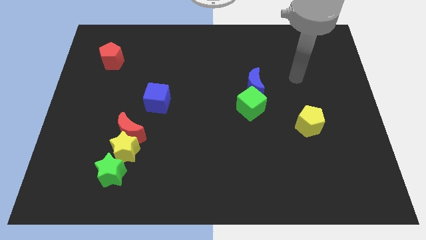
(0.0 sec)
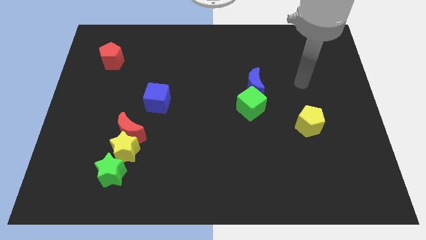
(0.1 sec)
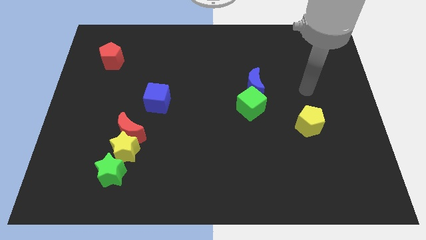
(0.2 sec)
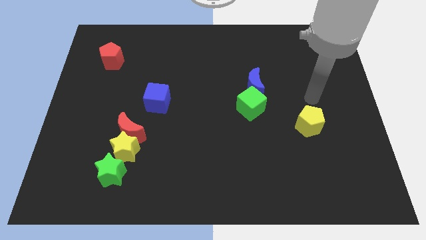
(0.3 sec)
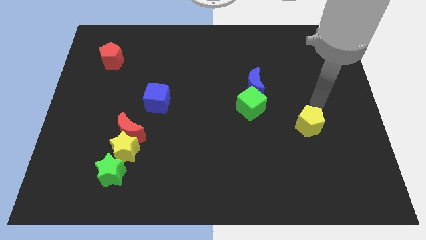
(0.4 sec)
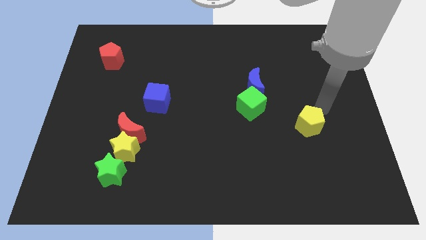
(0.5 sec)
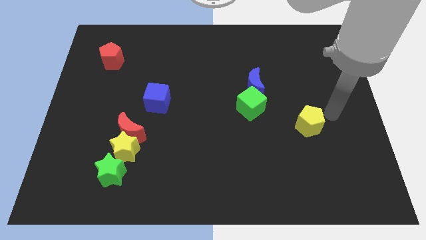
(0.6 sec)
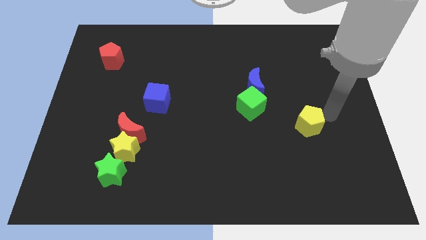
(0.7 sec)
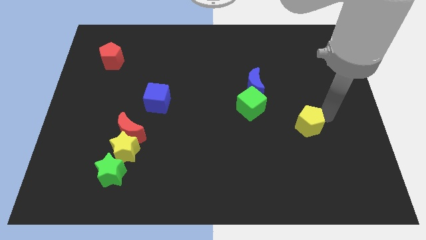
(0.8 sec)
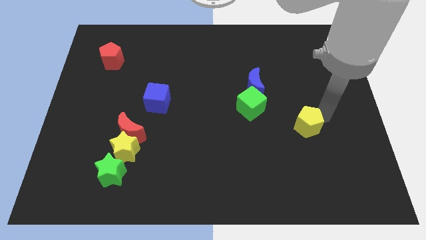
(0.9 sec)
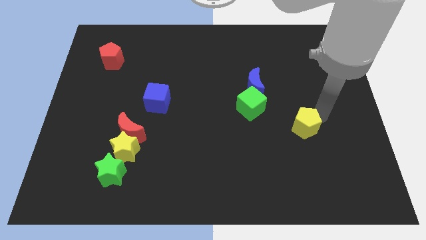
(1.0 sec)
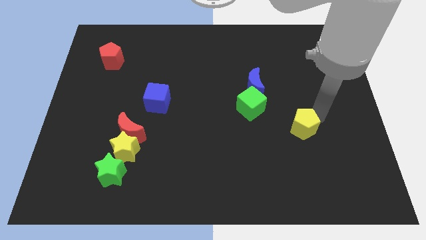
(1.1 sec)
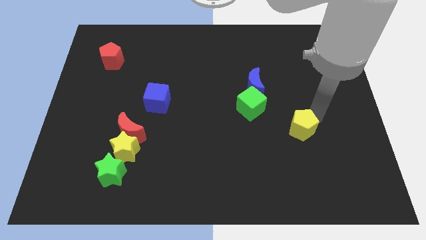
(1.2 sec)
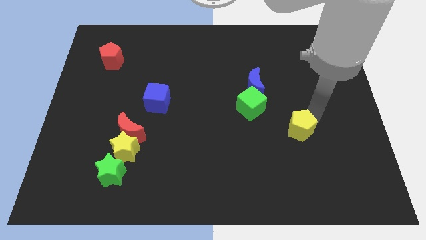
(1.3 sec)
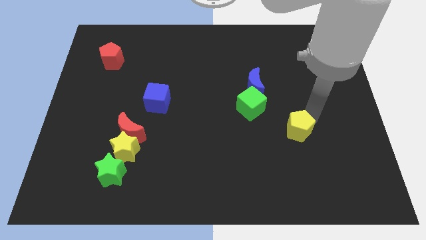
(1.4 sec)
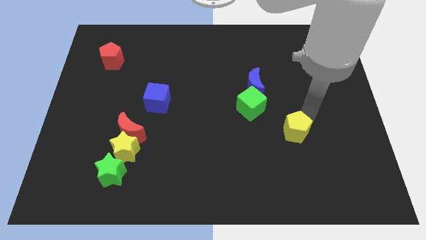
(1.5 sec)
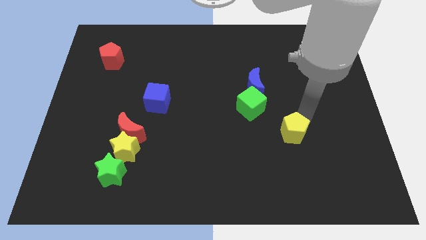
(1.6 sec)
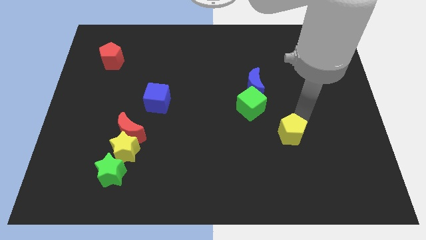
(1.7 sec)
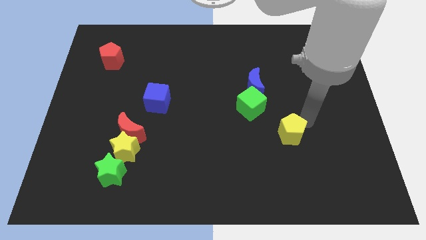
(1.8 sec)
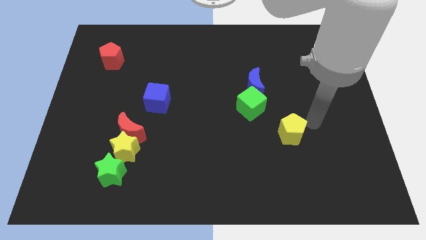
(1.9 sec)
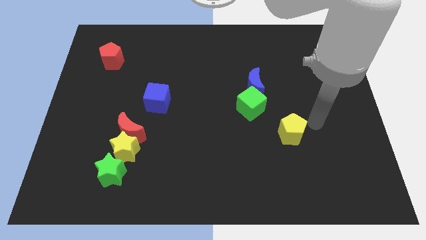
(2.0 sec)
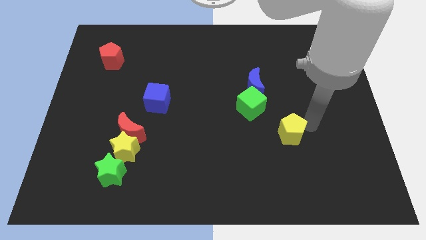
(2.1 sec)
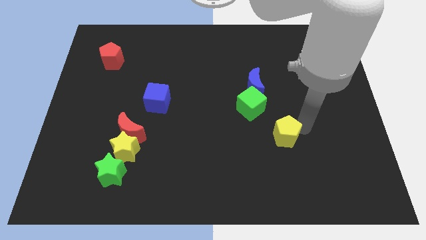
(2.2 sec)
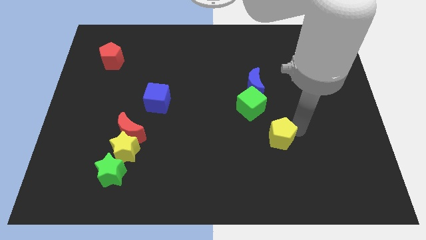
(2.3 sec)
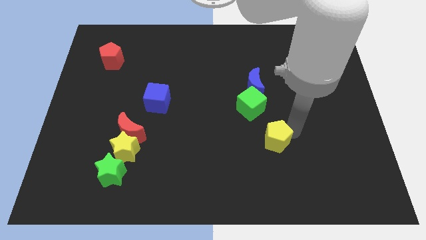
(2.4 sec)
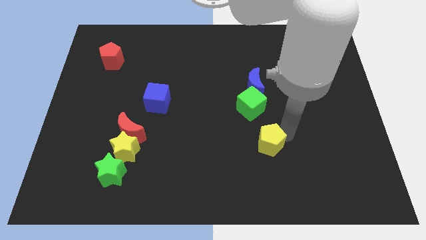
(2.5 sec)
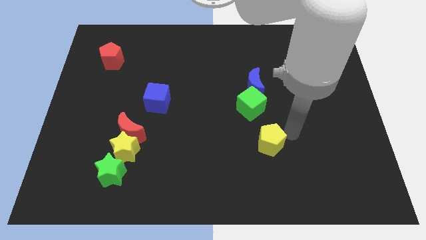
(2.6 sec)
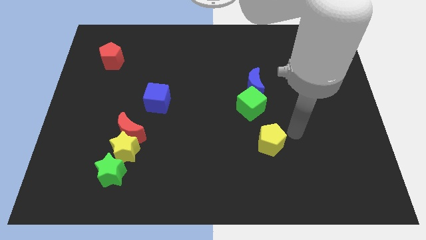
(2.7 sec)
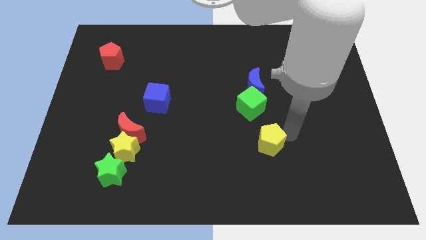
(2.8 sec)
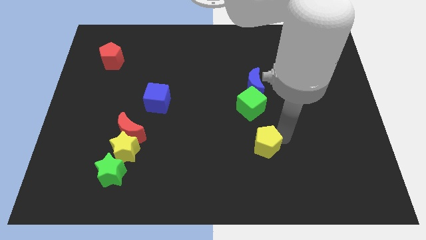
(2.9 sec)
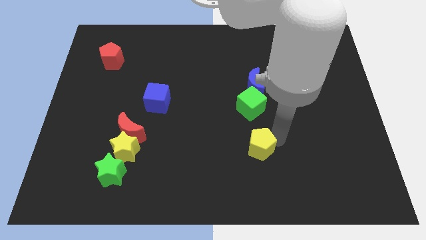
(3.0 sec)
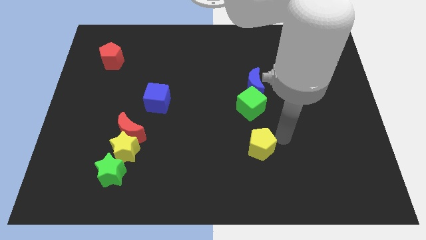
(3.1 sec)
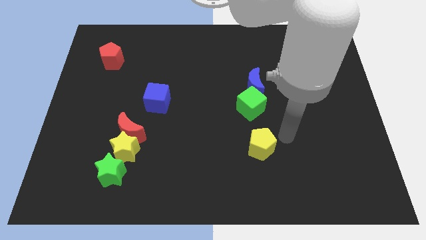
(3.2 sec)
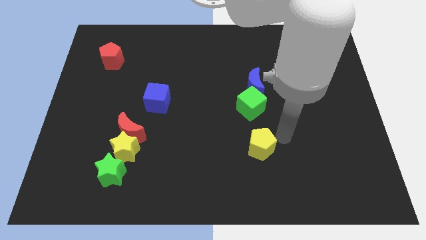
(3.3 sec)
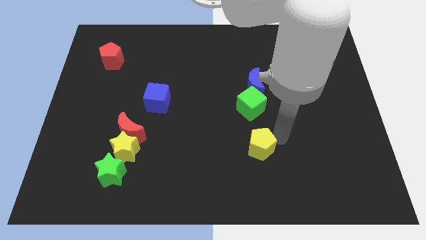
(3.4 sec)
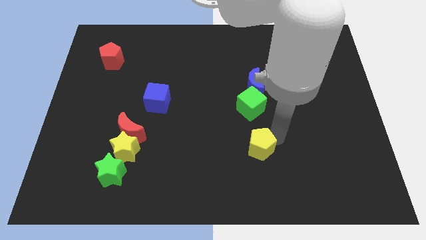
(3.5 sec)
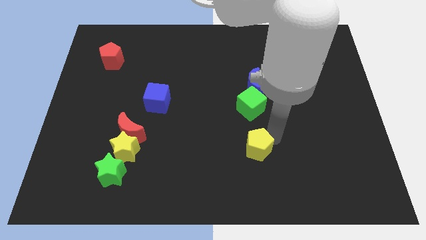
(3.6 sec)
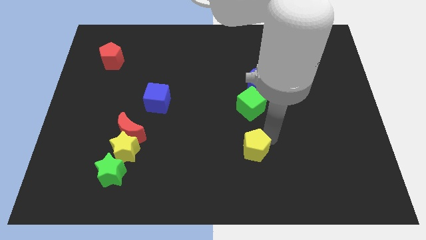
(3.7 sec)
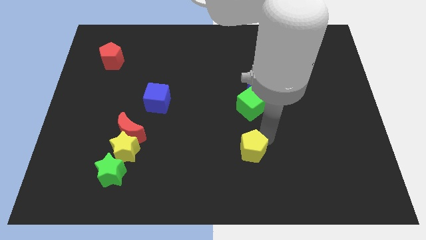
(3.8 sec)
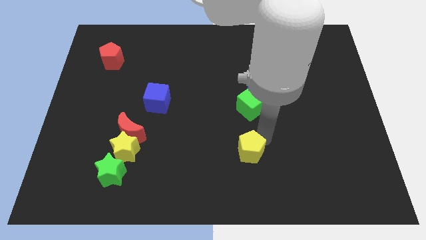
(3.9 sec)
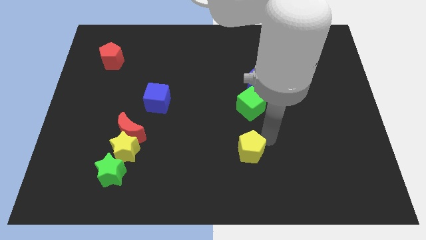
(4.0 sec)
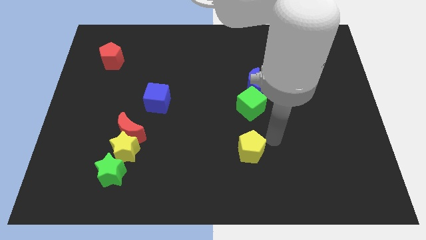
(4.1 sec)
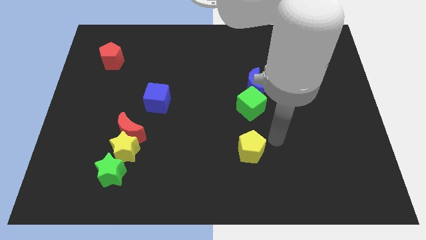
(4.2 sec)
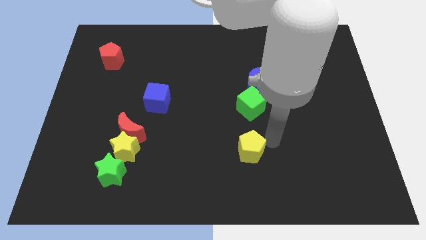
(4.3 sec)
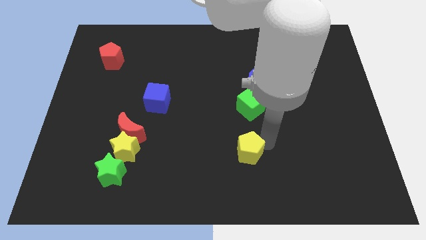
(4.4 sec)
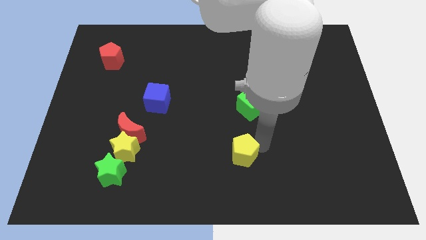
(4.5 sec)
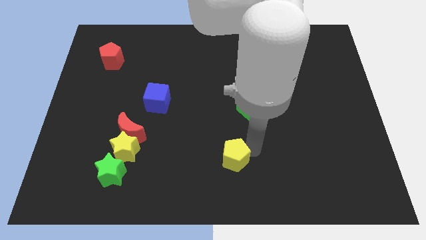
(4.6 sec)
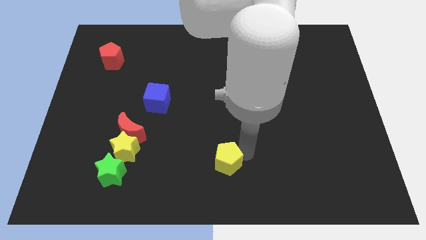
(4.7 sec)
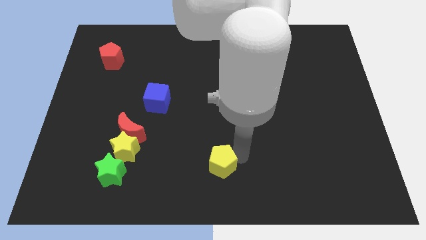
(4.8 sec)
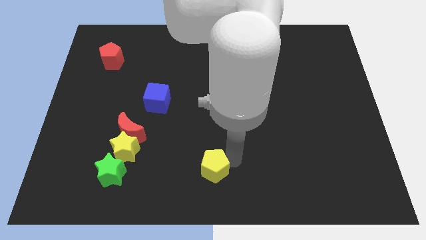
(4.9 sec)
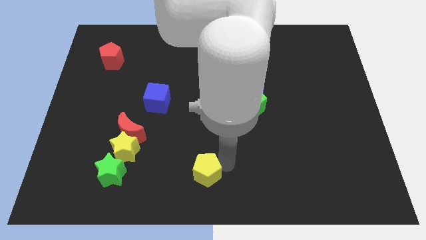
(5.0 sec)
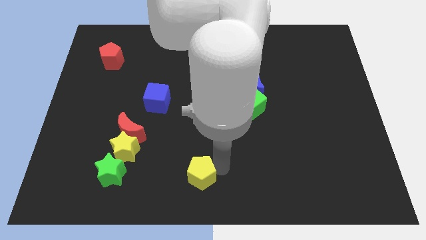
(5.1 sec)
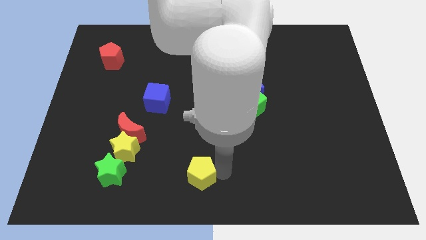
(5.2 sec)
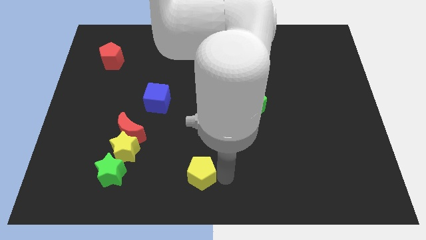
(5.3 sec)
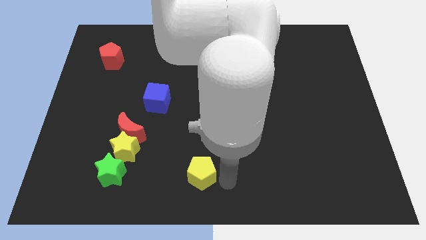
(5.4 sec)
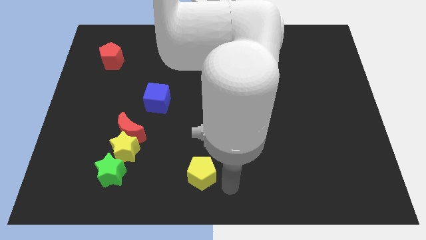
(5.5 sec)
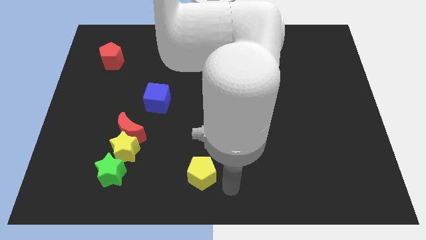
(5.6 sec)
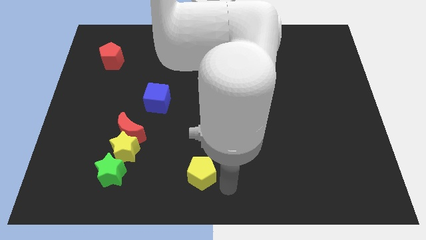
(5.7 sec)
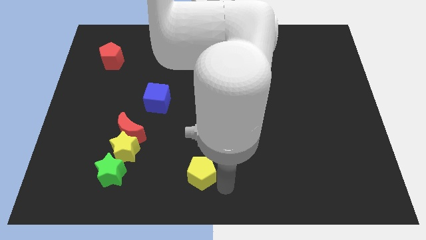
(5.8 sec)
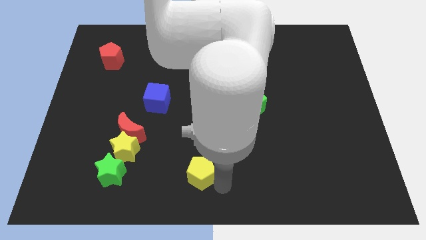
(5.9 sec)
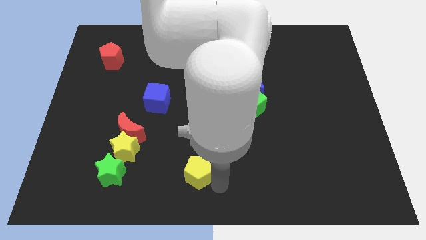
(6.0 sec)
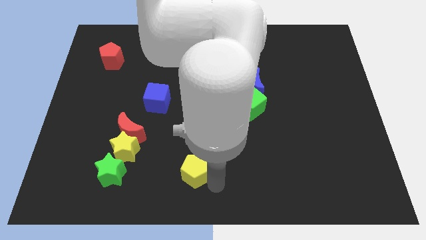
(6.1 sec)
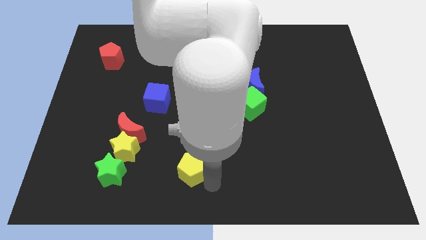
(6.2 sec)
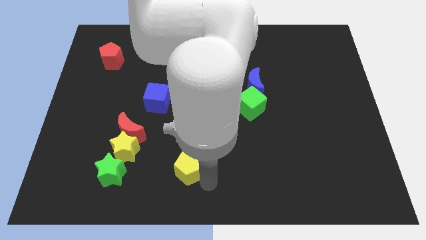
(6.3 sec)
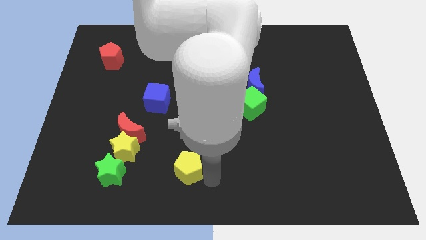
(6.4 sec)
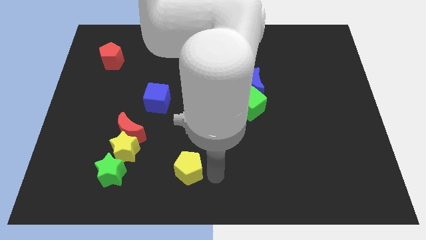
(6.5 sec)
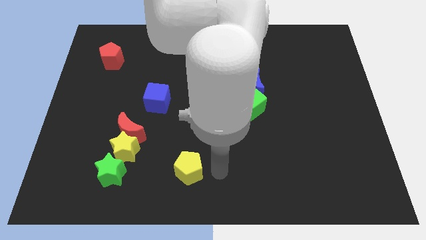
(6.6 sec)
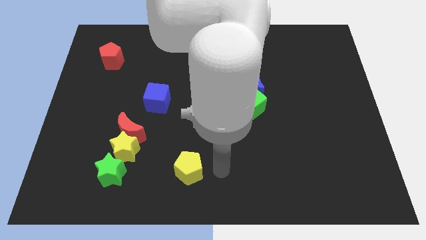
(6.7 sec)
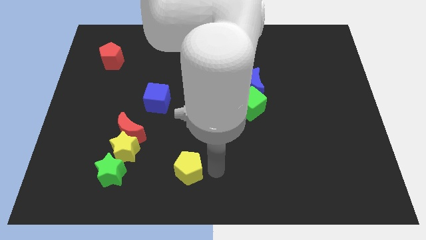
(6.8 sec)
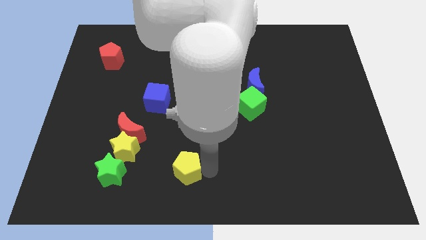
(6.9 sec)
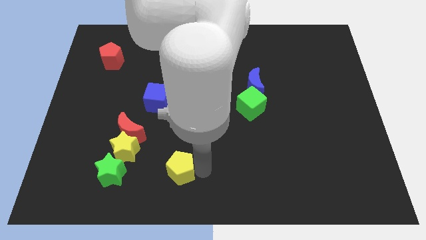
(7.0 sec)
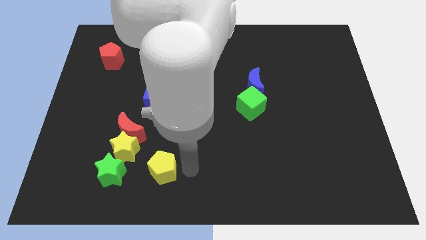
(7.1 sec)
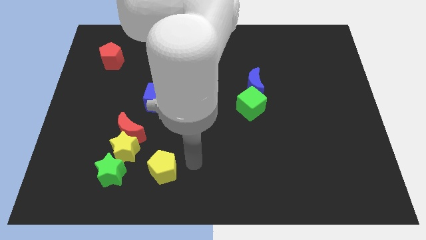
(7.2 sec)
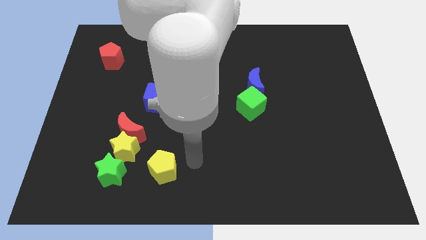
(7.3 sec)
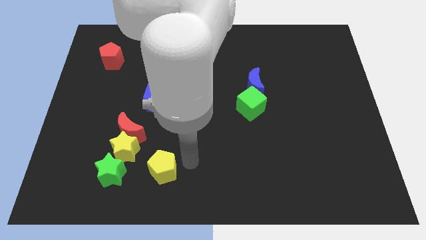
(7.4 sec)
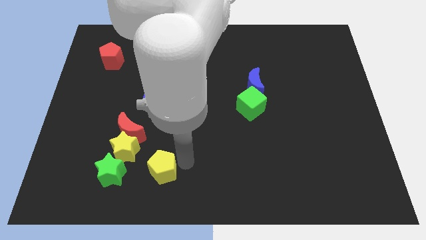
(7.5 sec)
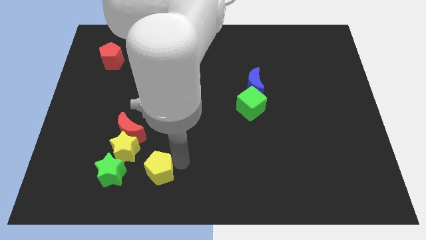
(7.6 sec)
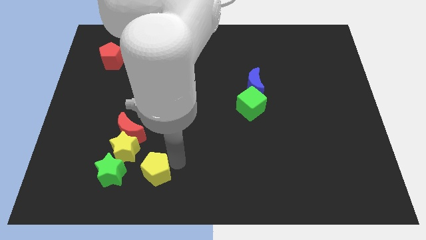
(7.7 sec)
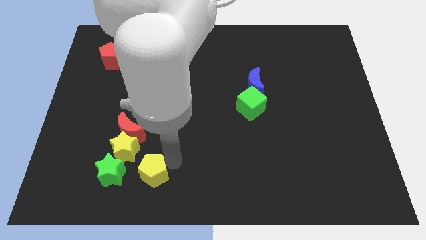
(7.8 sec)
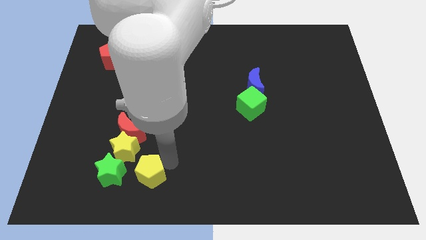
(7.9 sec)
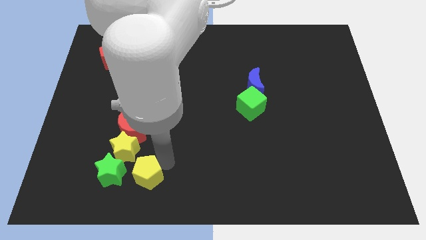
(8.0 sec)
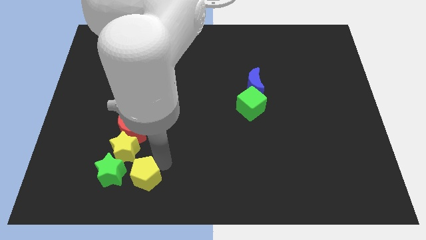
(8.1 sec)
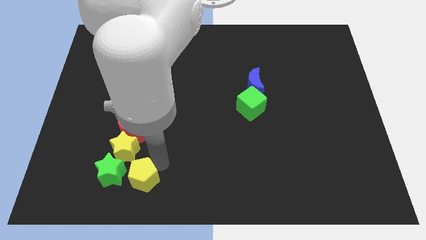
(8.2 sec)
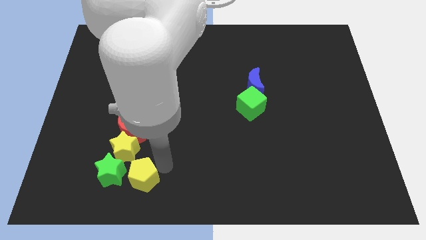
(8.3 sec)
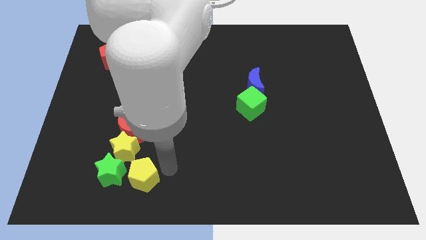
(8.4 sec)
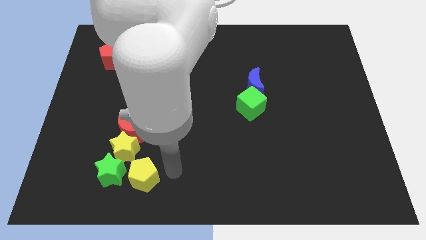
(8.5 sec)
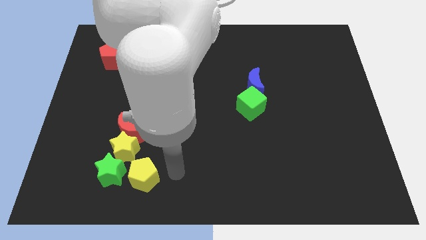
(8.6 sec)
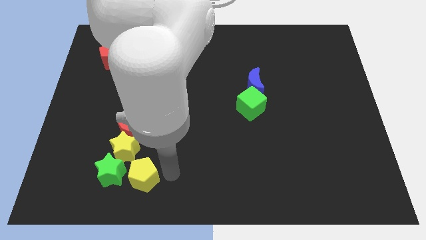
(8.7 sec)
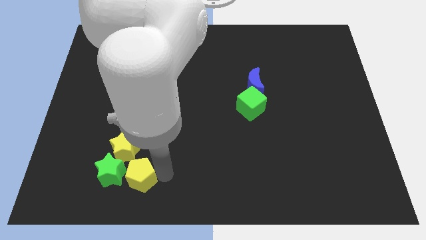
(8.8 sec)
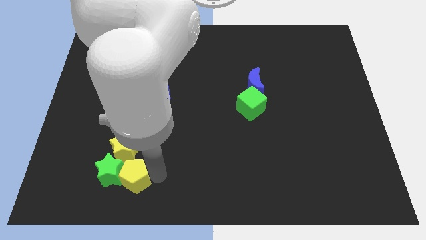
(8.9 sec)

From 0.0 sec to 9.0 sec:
push the yellow pentagon next to the green star
